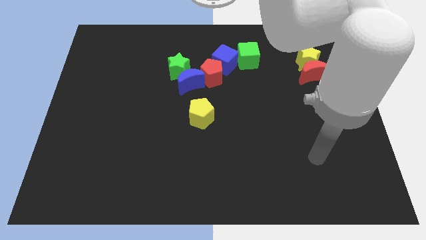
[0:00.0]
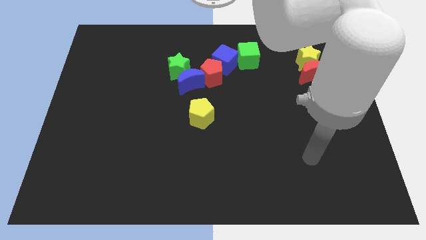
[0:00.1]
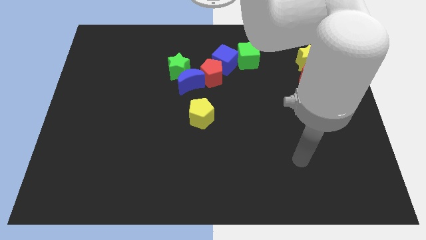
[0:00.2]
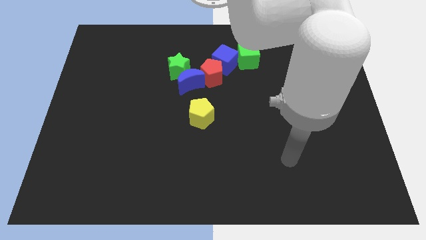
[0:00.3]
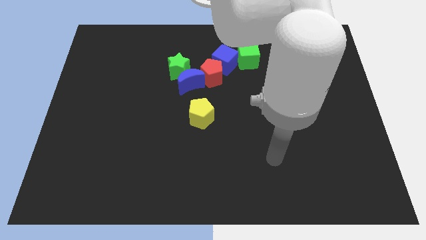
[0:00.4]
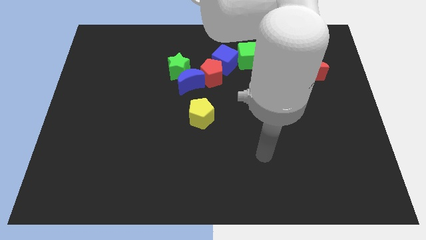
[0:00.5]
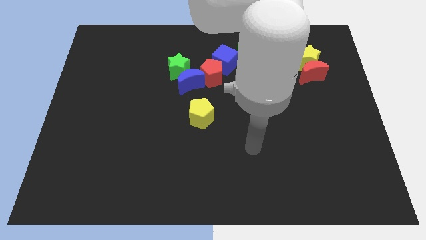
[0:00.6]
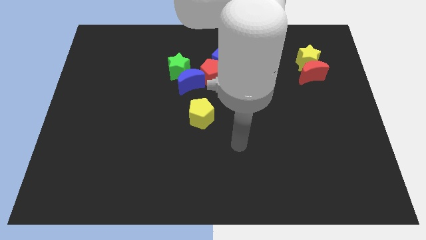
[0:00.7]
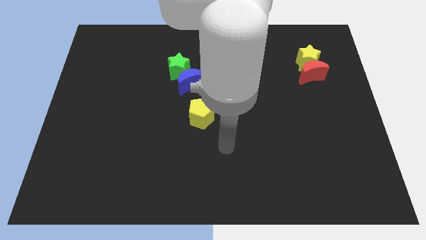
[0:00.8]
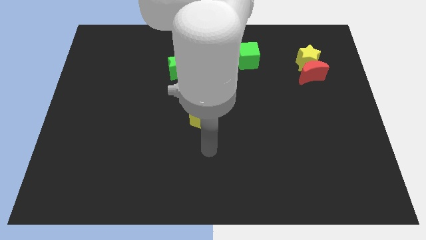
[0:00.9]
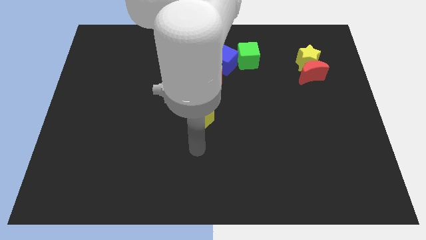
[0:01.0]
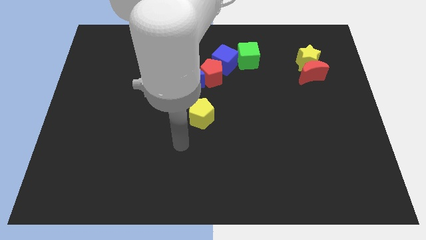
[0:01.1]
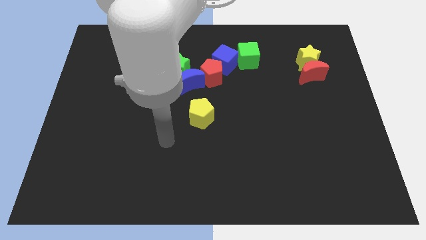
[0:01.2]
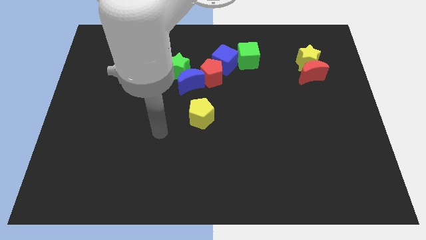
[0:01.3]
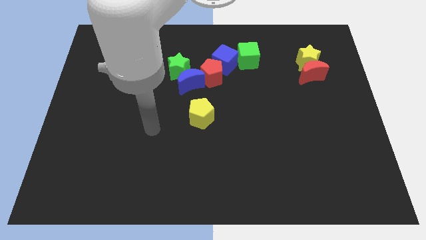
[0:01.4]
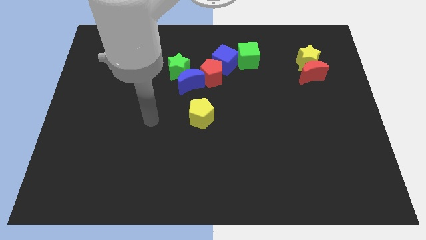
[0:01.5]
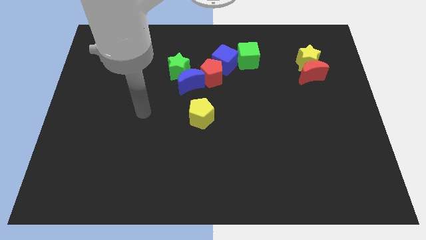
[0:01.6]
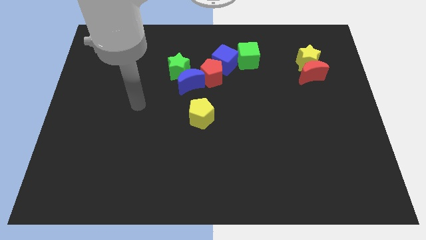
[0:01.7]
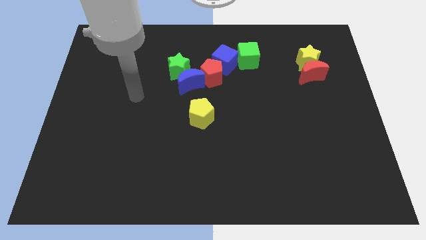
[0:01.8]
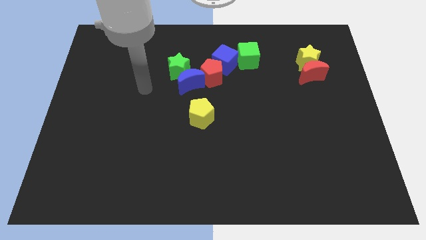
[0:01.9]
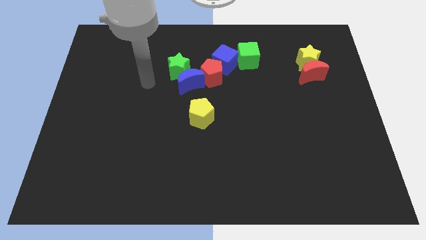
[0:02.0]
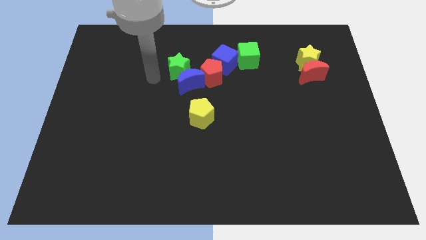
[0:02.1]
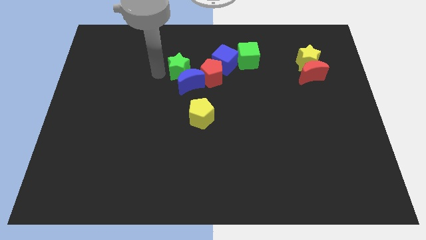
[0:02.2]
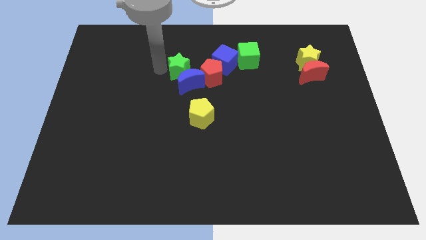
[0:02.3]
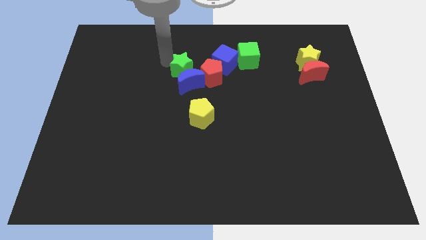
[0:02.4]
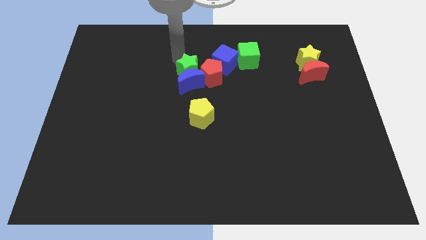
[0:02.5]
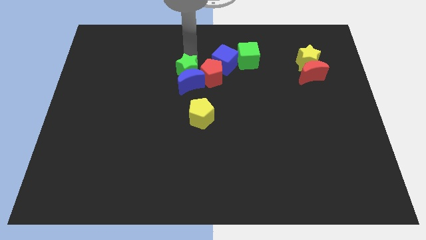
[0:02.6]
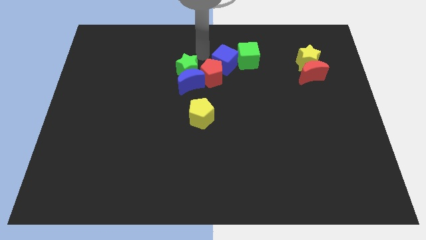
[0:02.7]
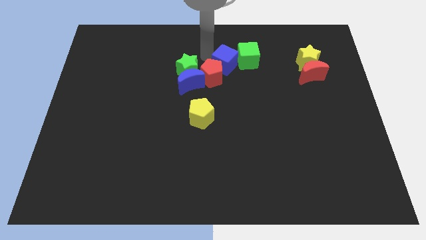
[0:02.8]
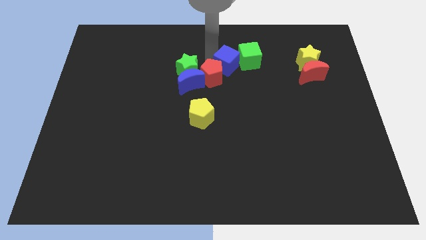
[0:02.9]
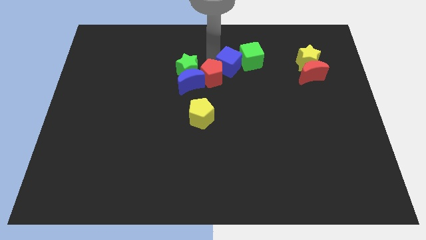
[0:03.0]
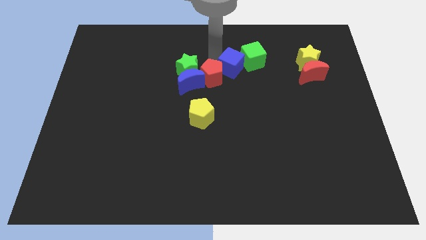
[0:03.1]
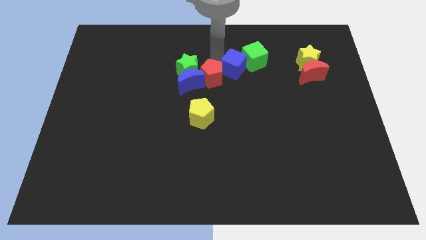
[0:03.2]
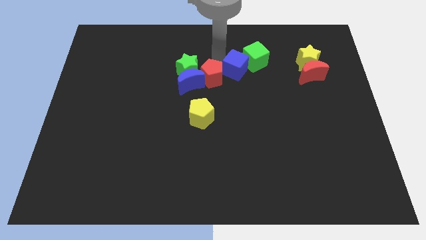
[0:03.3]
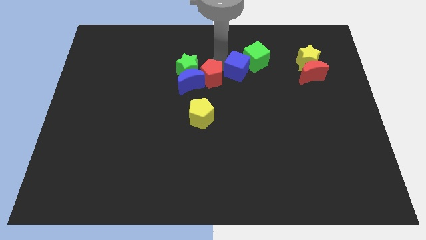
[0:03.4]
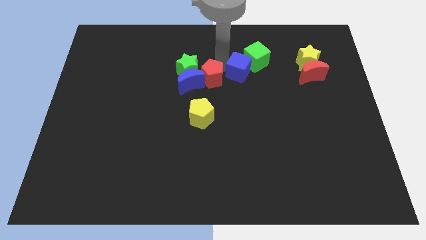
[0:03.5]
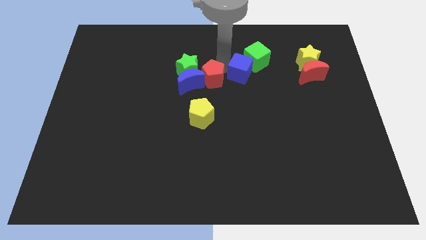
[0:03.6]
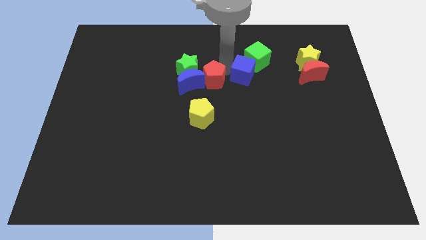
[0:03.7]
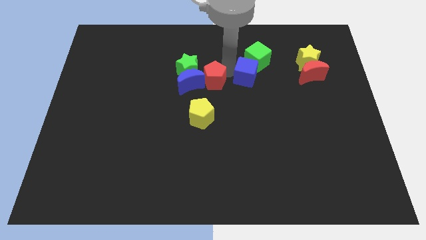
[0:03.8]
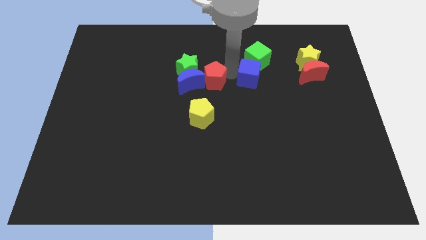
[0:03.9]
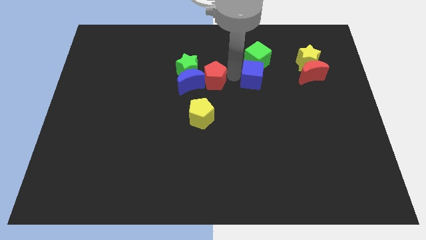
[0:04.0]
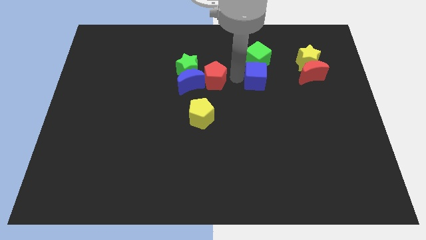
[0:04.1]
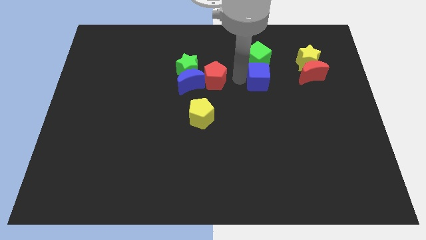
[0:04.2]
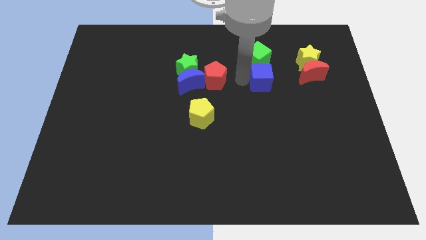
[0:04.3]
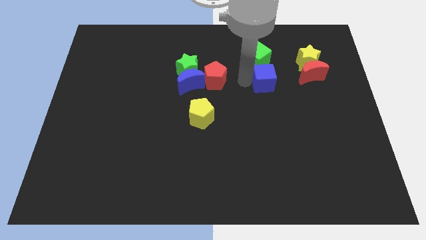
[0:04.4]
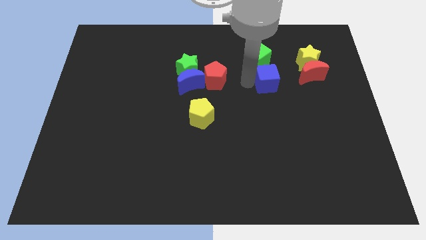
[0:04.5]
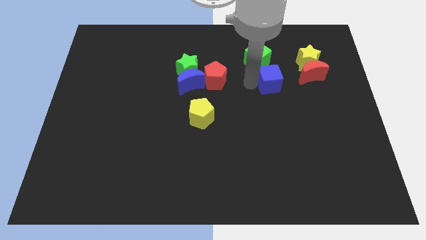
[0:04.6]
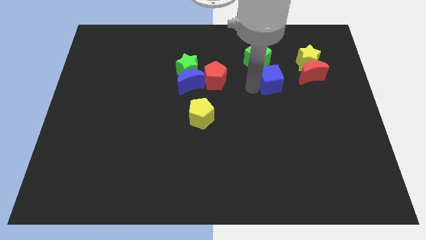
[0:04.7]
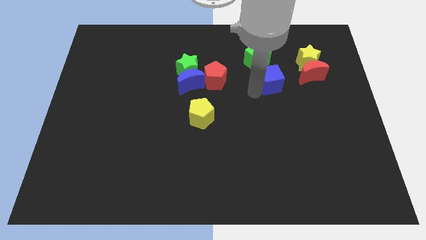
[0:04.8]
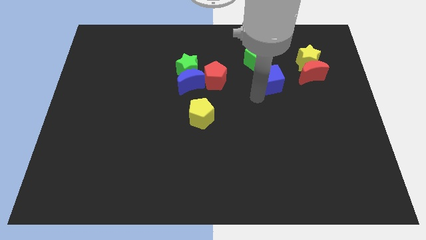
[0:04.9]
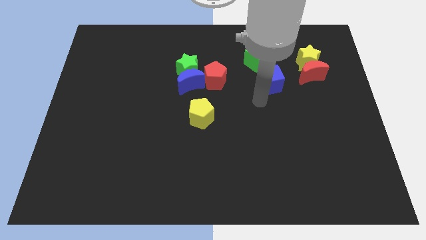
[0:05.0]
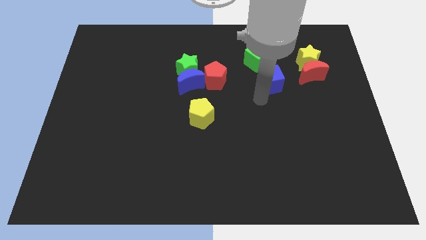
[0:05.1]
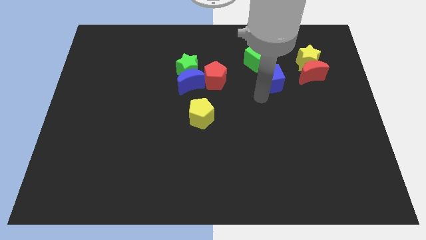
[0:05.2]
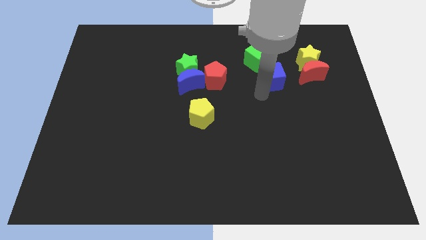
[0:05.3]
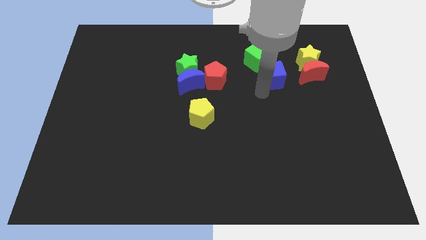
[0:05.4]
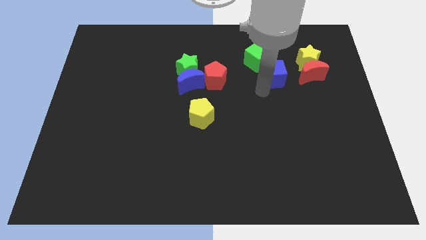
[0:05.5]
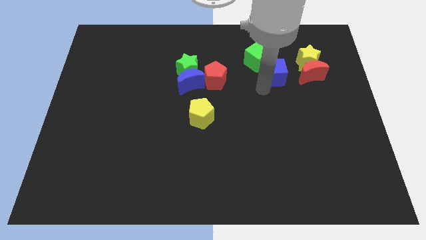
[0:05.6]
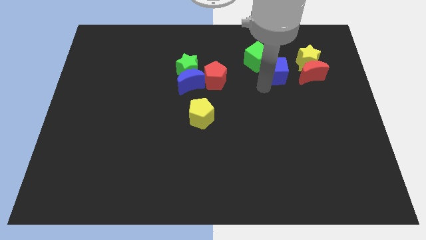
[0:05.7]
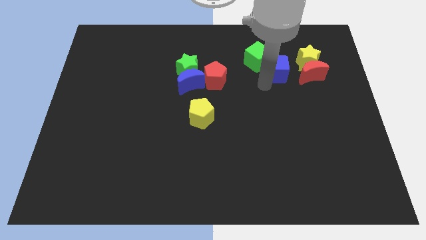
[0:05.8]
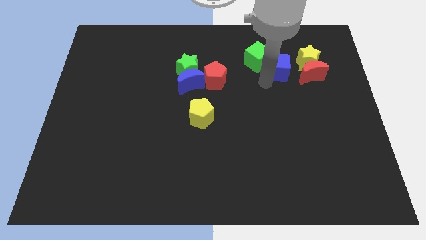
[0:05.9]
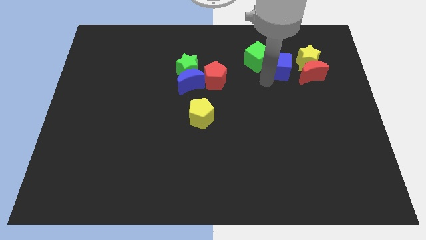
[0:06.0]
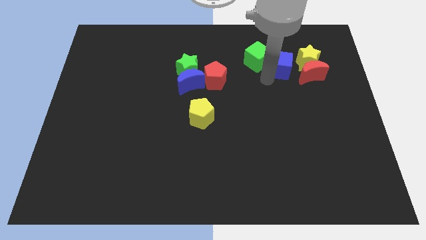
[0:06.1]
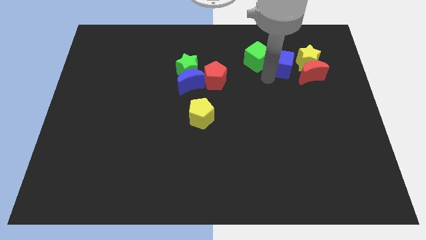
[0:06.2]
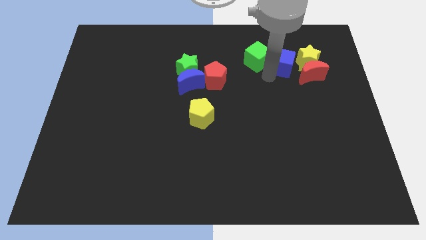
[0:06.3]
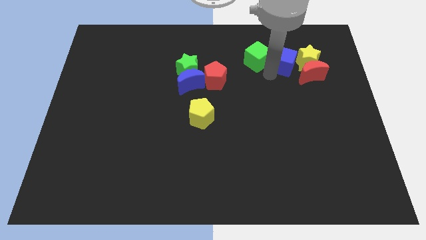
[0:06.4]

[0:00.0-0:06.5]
slide the blue cube next to the yellow star
